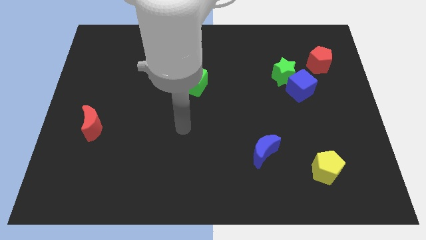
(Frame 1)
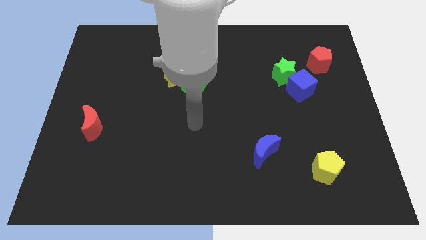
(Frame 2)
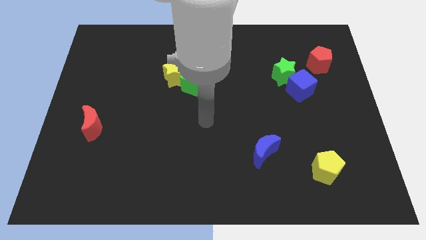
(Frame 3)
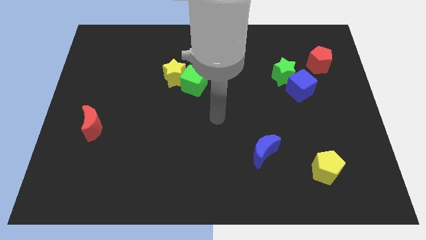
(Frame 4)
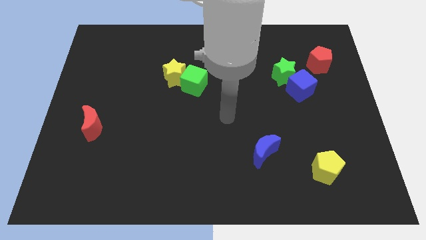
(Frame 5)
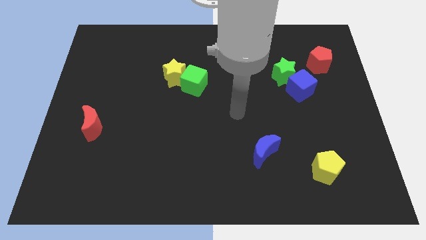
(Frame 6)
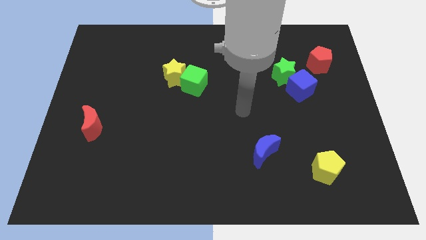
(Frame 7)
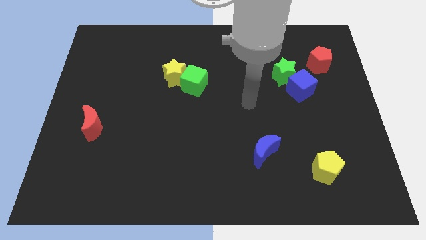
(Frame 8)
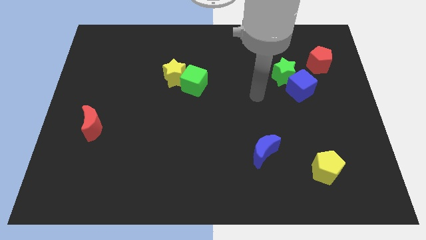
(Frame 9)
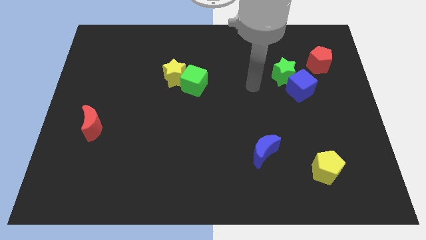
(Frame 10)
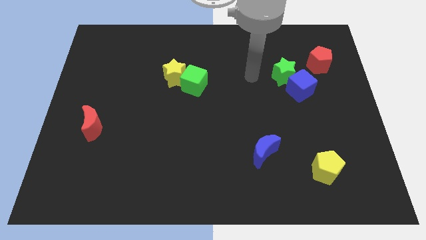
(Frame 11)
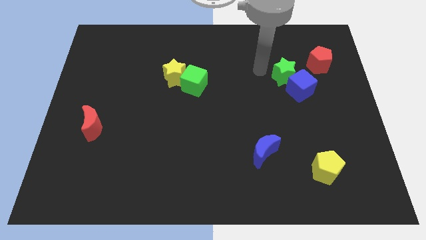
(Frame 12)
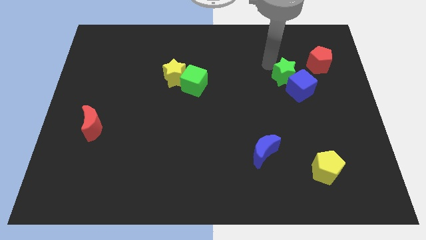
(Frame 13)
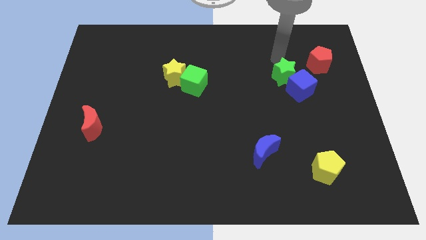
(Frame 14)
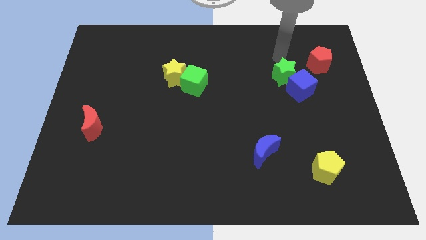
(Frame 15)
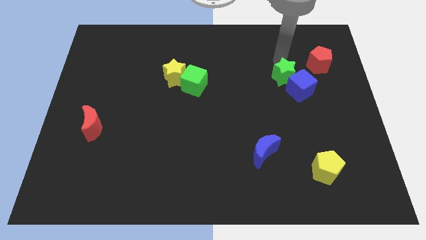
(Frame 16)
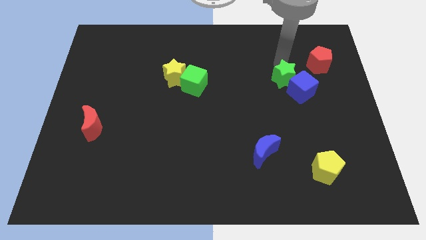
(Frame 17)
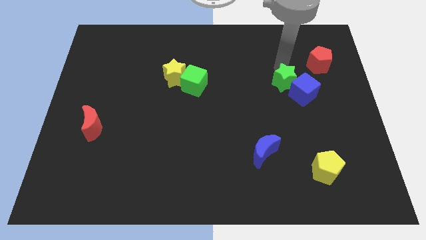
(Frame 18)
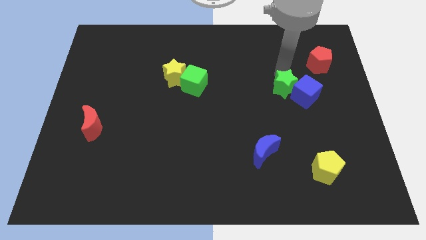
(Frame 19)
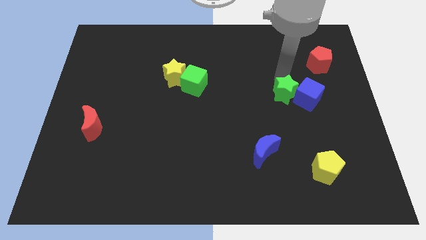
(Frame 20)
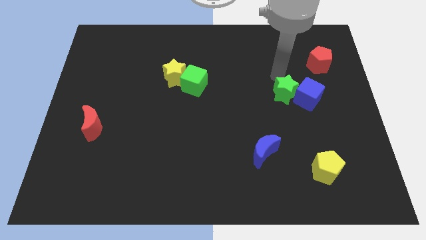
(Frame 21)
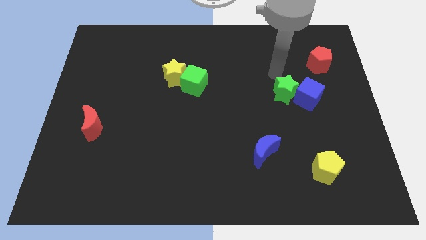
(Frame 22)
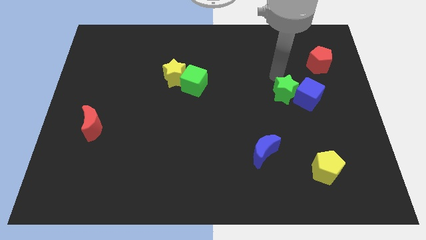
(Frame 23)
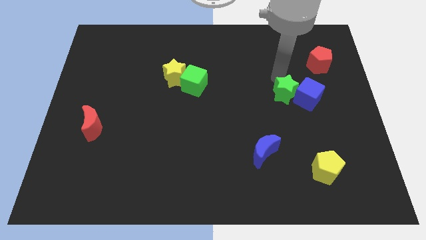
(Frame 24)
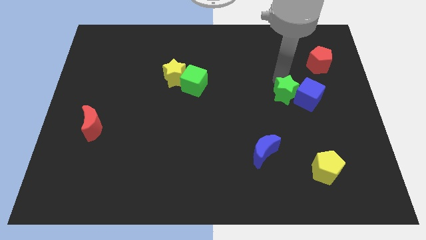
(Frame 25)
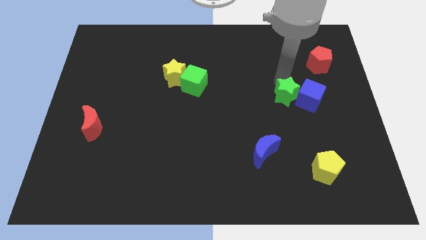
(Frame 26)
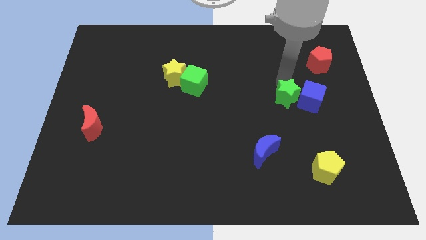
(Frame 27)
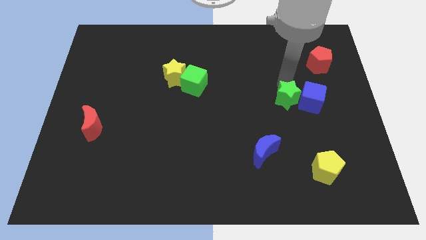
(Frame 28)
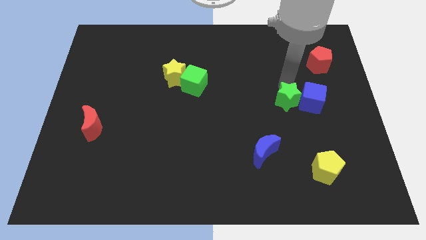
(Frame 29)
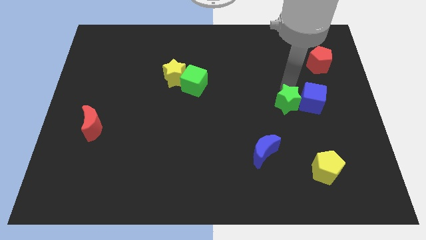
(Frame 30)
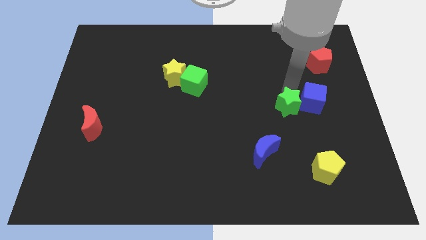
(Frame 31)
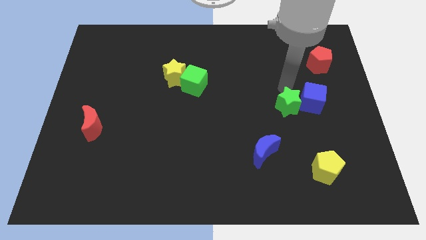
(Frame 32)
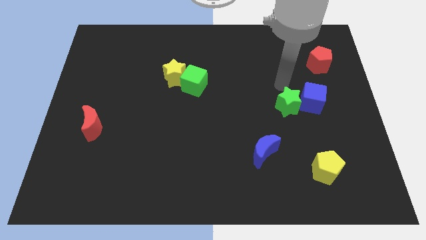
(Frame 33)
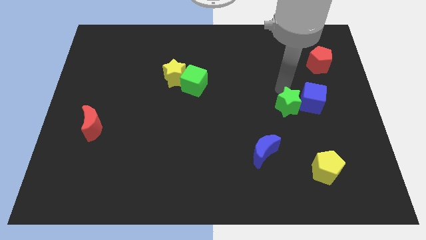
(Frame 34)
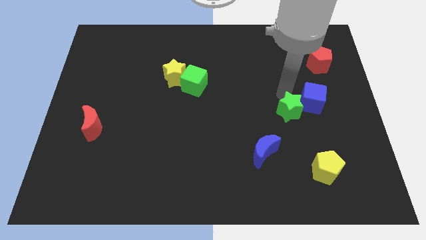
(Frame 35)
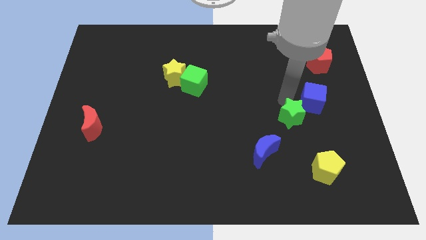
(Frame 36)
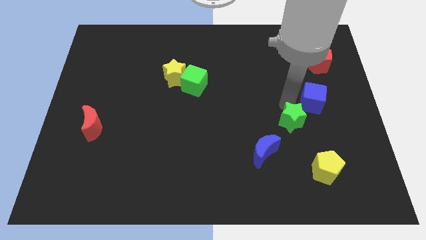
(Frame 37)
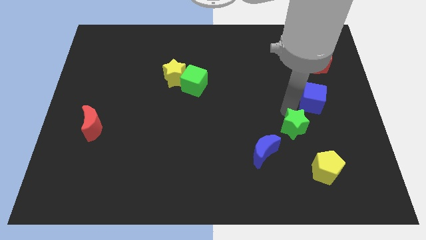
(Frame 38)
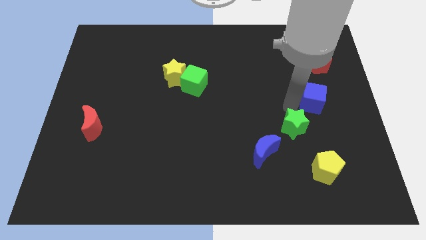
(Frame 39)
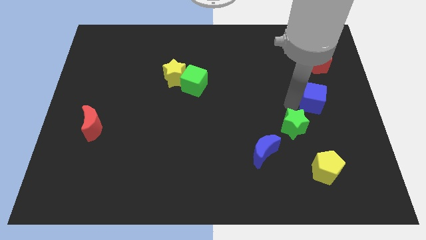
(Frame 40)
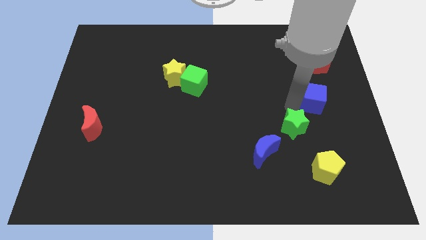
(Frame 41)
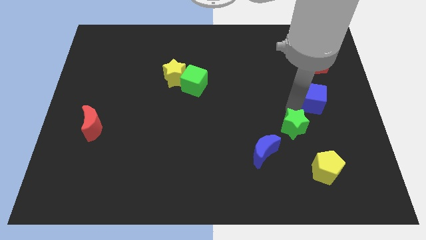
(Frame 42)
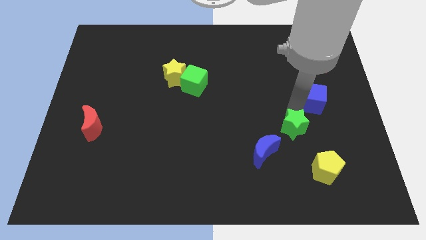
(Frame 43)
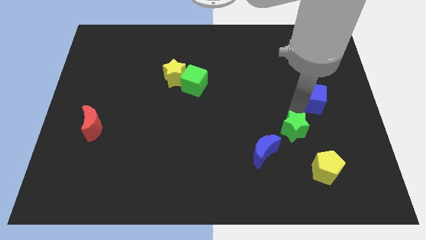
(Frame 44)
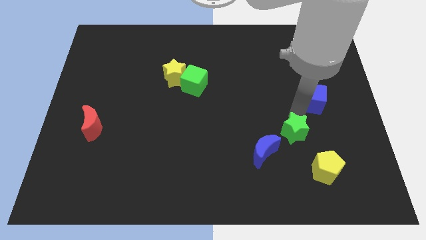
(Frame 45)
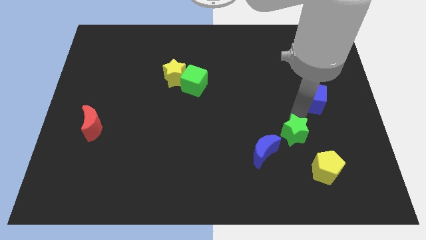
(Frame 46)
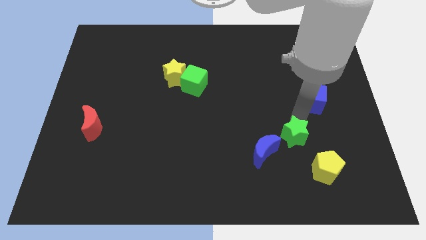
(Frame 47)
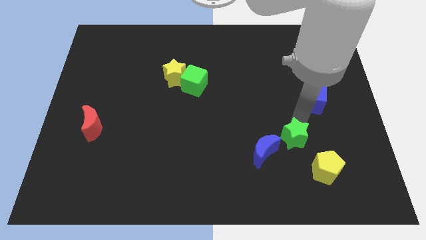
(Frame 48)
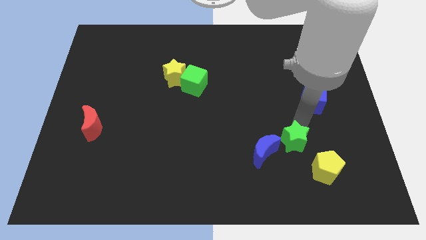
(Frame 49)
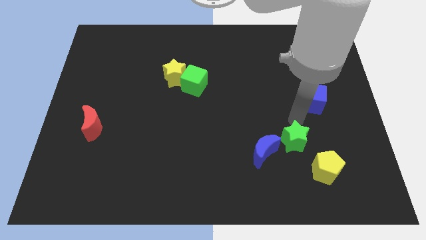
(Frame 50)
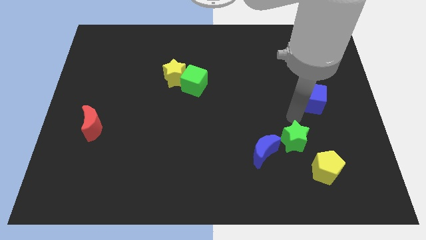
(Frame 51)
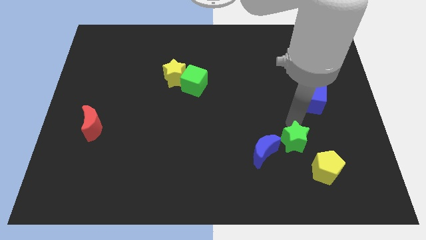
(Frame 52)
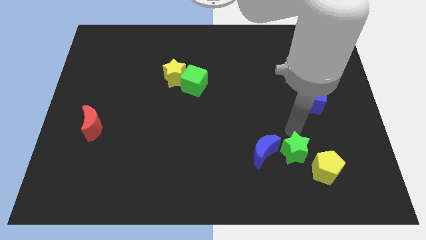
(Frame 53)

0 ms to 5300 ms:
put the green star to the bottom right of the blue moon

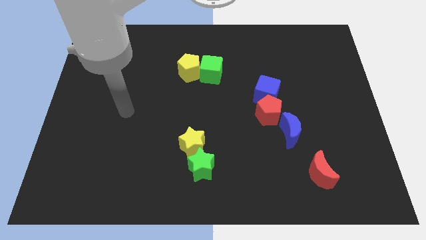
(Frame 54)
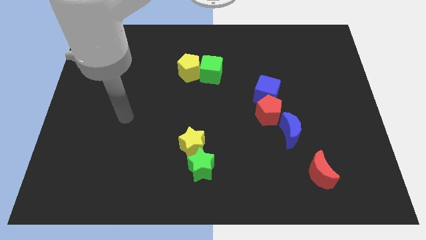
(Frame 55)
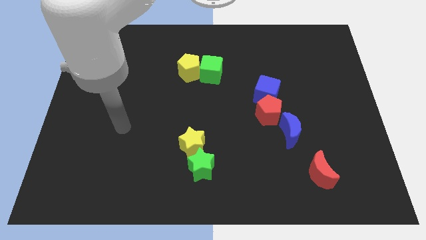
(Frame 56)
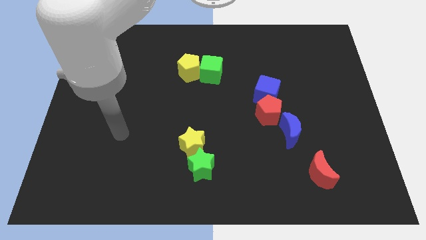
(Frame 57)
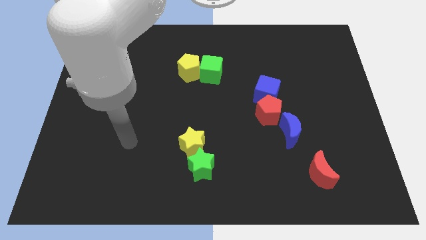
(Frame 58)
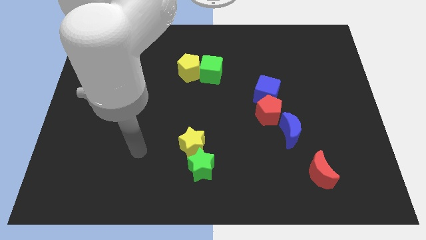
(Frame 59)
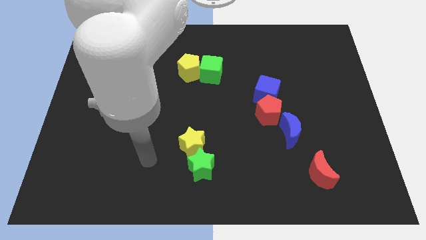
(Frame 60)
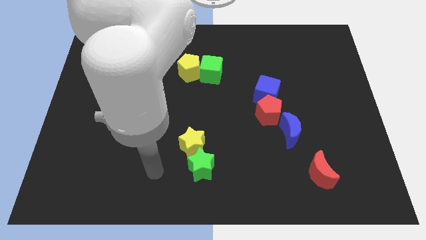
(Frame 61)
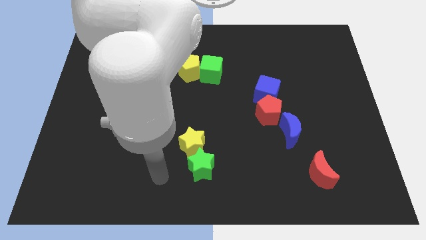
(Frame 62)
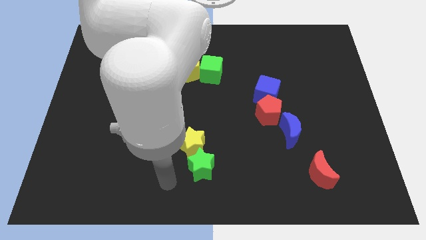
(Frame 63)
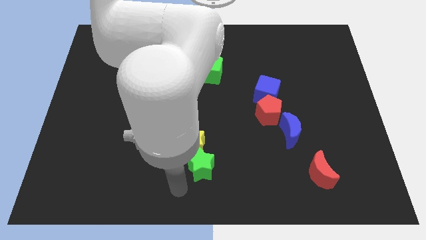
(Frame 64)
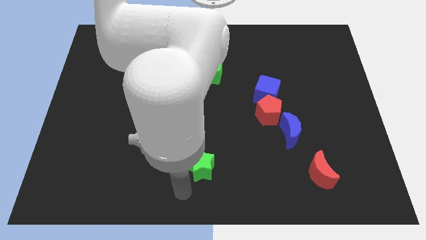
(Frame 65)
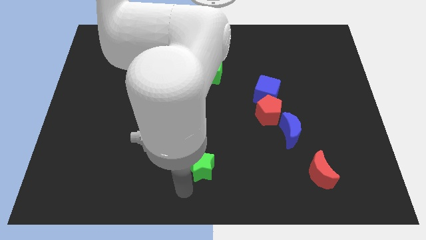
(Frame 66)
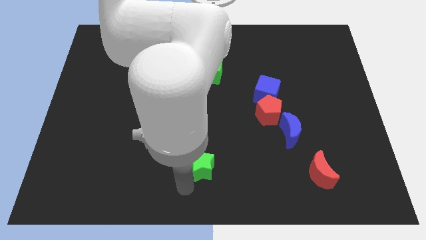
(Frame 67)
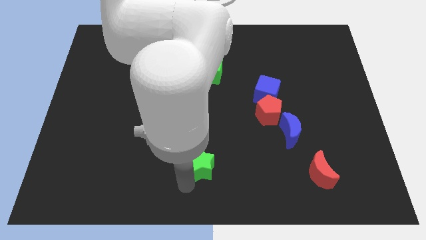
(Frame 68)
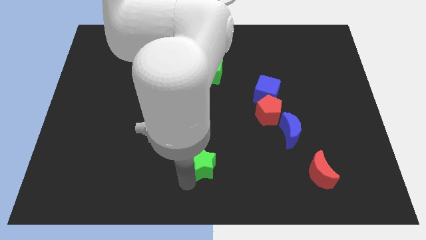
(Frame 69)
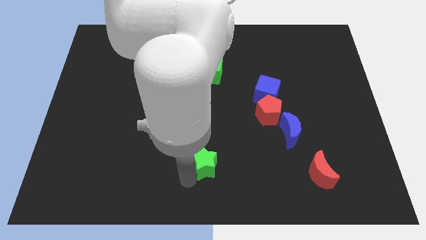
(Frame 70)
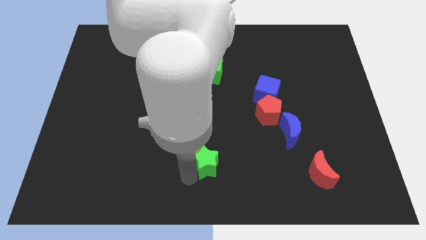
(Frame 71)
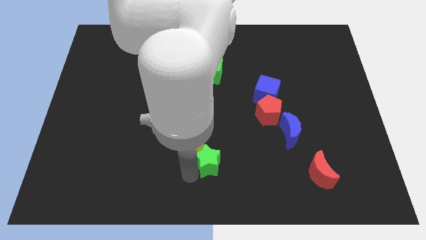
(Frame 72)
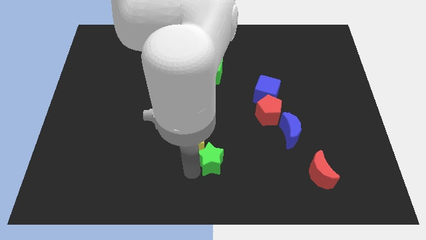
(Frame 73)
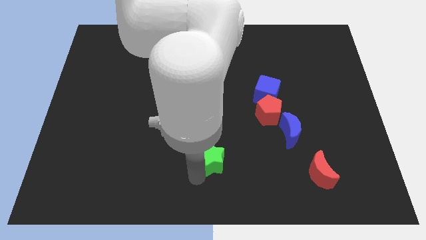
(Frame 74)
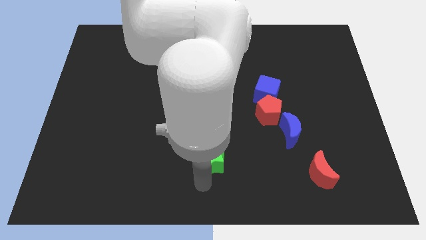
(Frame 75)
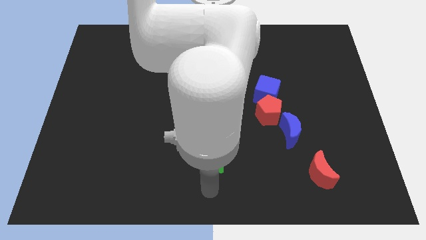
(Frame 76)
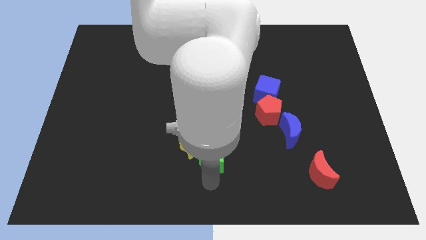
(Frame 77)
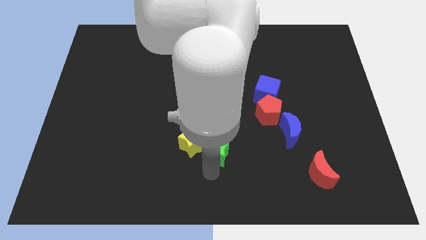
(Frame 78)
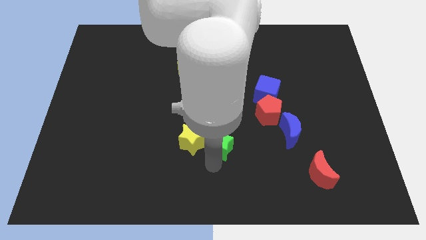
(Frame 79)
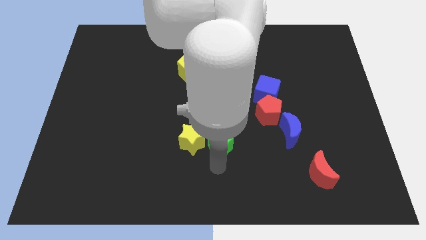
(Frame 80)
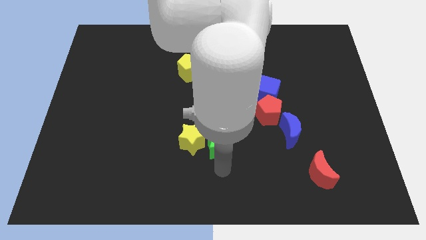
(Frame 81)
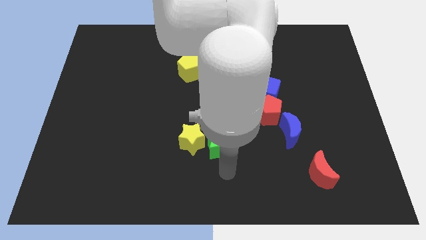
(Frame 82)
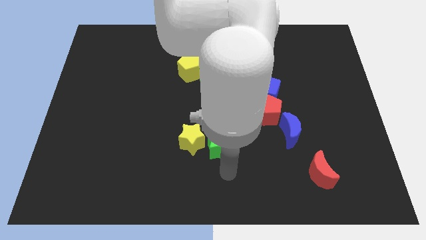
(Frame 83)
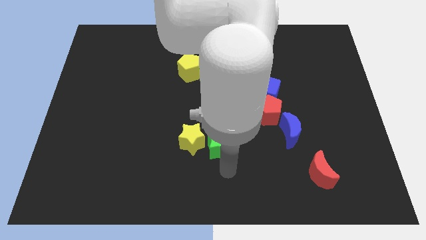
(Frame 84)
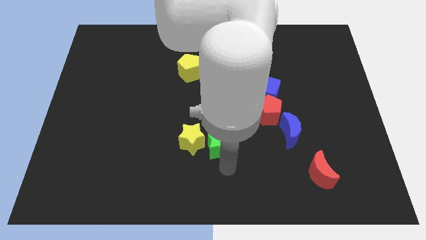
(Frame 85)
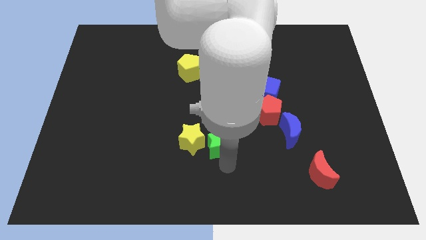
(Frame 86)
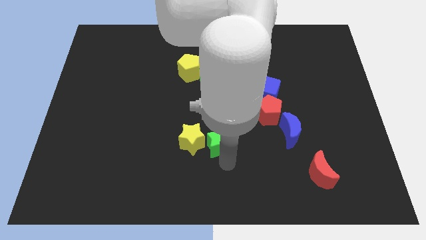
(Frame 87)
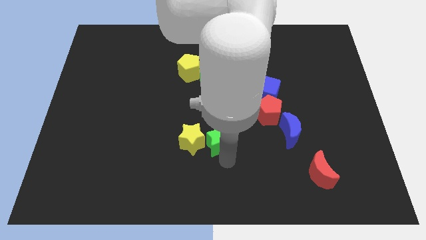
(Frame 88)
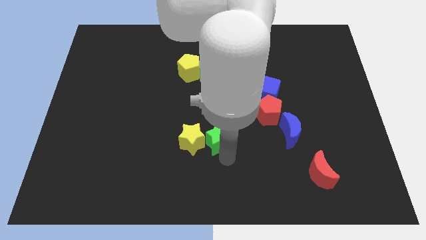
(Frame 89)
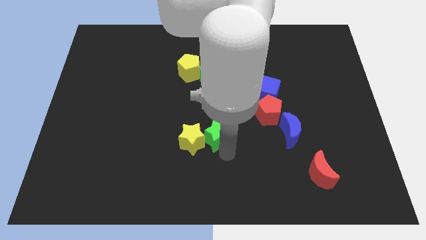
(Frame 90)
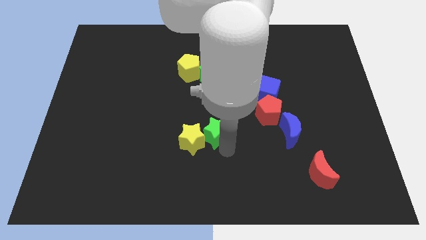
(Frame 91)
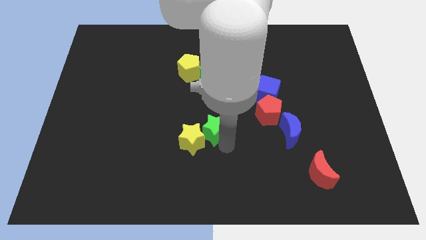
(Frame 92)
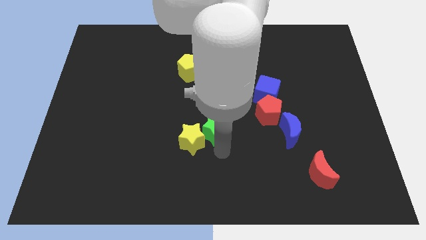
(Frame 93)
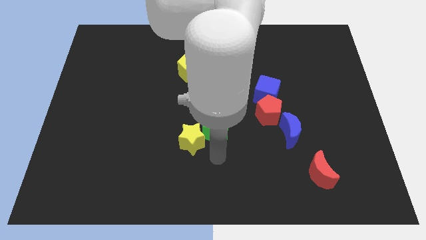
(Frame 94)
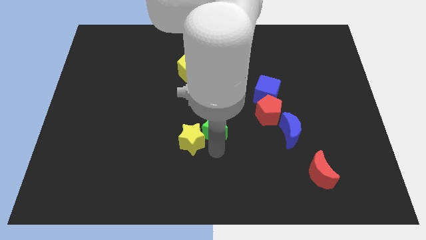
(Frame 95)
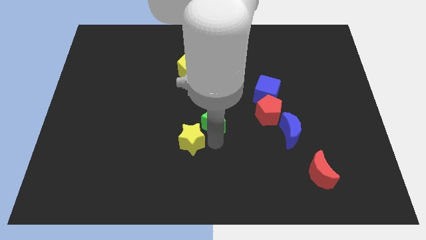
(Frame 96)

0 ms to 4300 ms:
move the green star below the green cube
